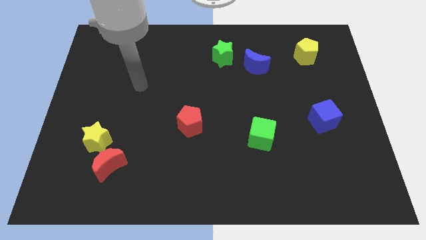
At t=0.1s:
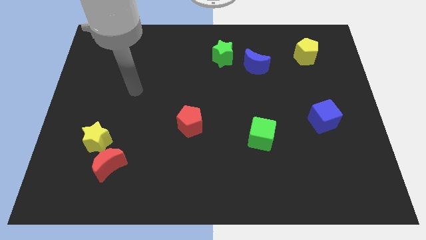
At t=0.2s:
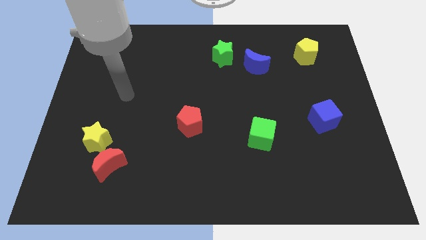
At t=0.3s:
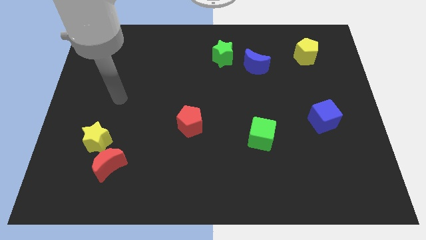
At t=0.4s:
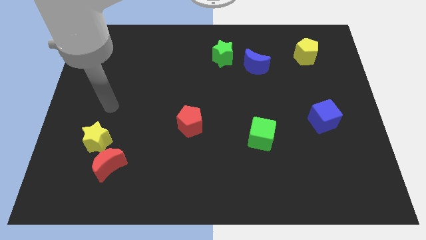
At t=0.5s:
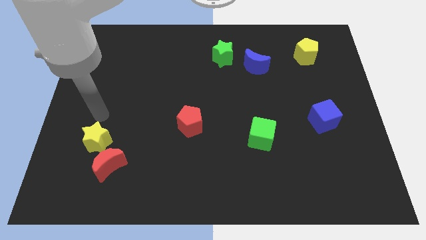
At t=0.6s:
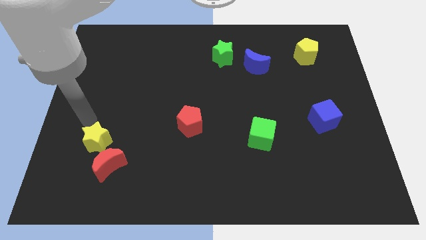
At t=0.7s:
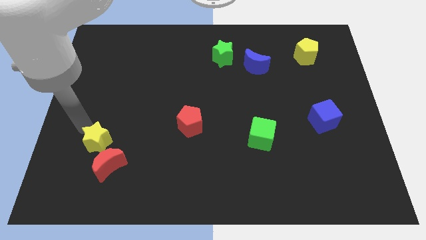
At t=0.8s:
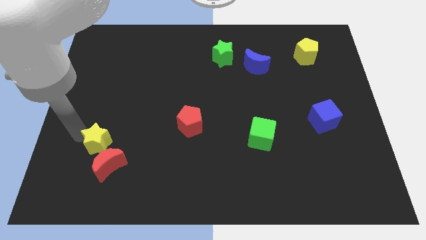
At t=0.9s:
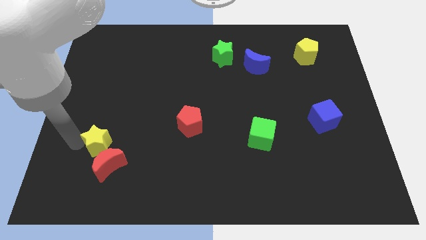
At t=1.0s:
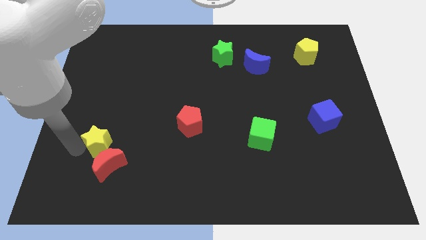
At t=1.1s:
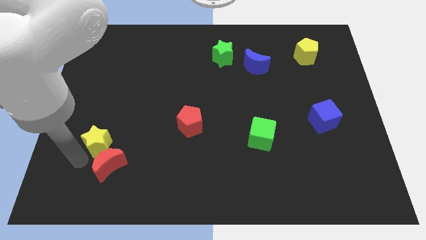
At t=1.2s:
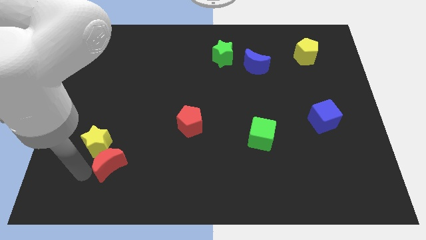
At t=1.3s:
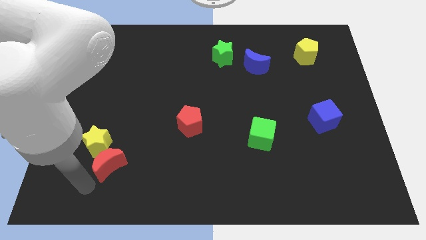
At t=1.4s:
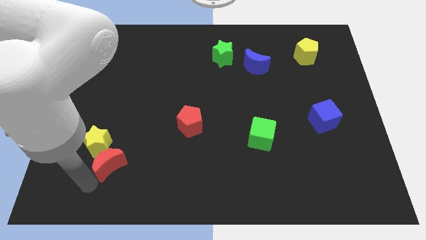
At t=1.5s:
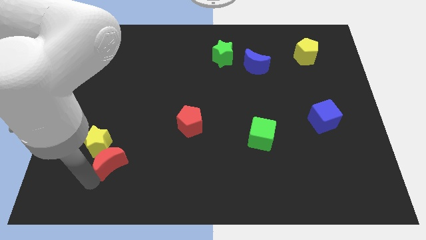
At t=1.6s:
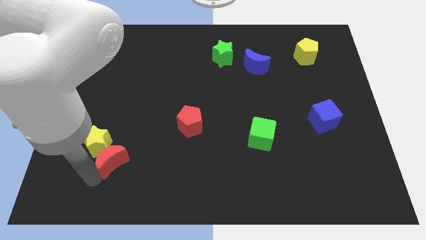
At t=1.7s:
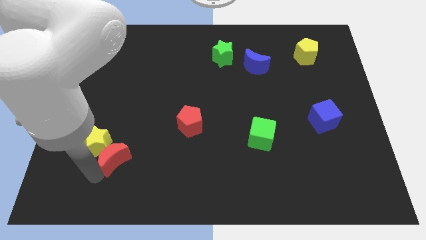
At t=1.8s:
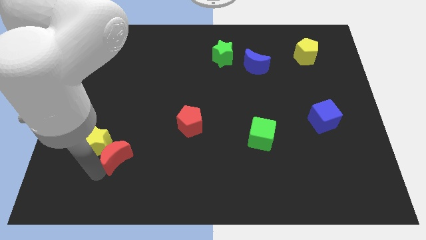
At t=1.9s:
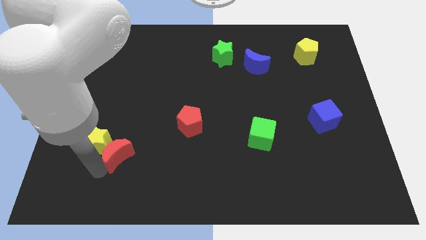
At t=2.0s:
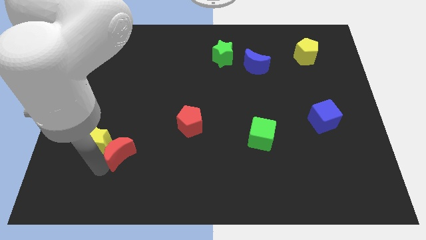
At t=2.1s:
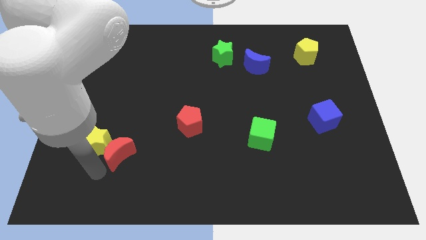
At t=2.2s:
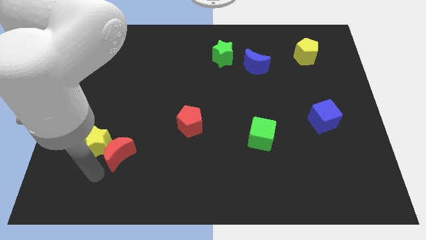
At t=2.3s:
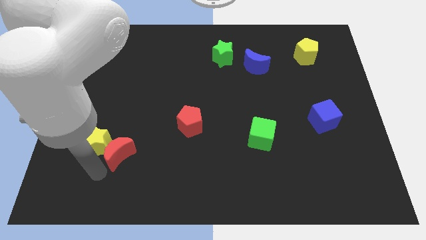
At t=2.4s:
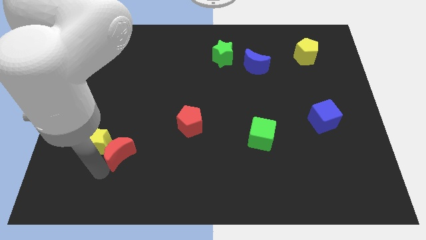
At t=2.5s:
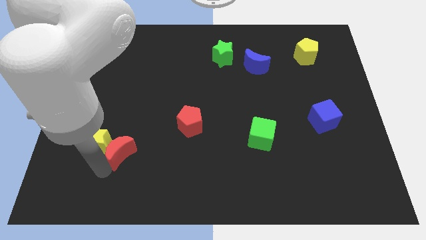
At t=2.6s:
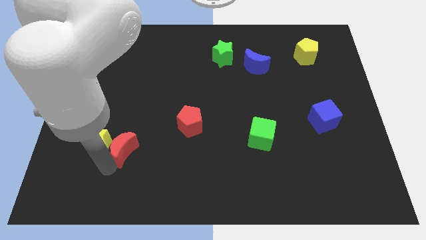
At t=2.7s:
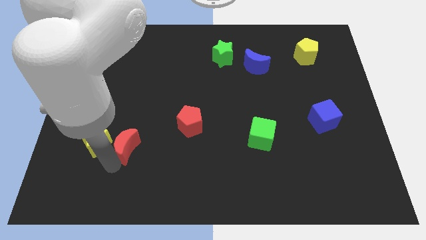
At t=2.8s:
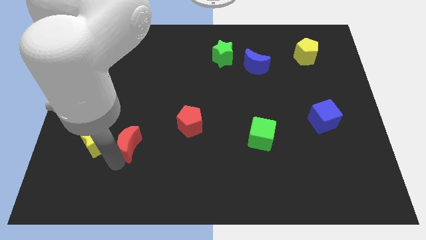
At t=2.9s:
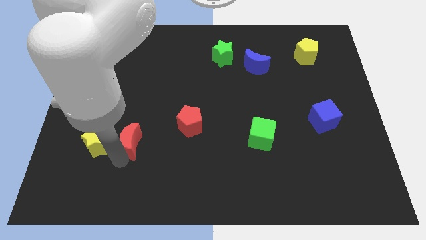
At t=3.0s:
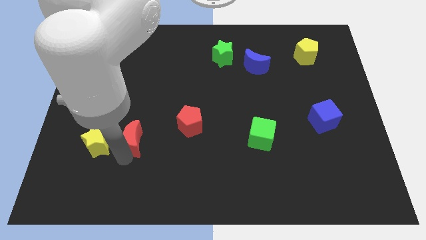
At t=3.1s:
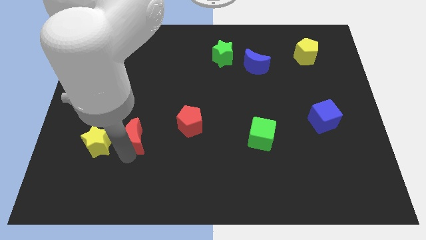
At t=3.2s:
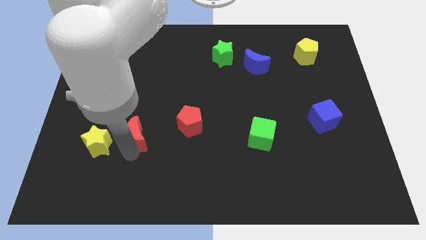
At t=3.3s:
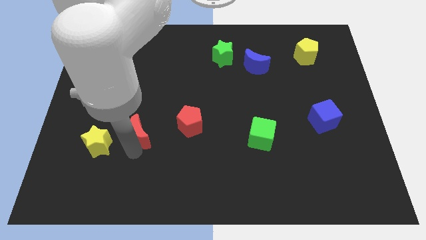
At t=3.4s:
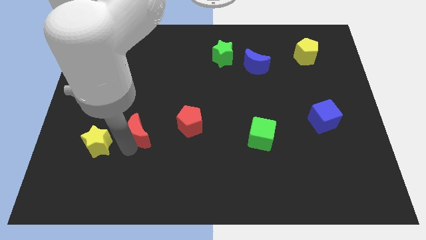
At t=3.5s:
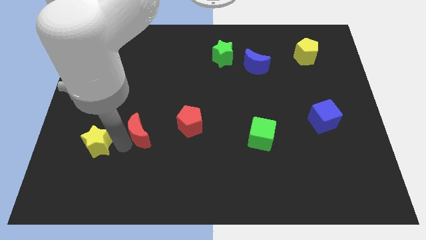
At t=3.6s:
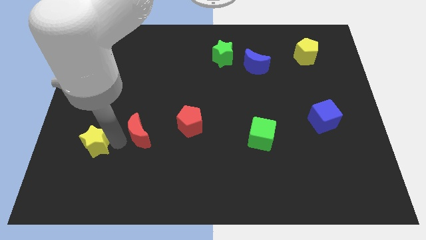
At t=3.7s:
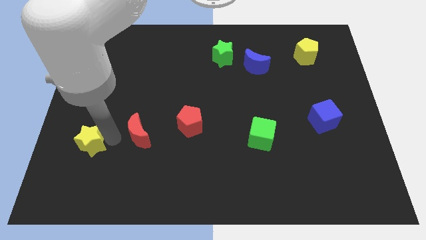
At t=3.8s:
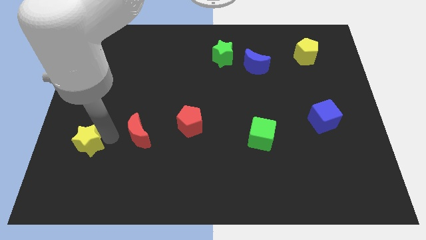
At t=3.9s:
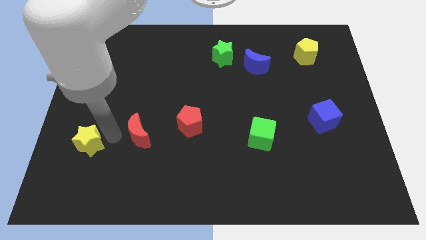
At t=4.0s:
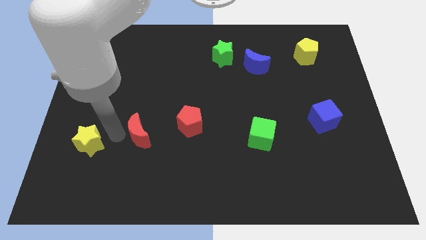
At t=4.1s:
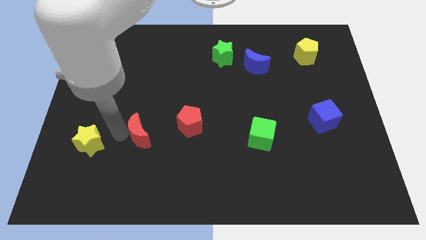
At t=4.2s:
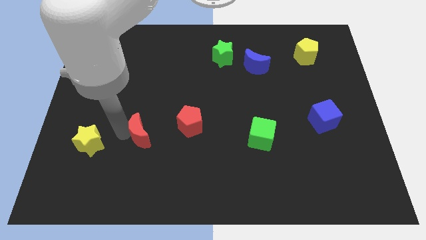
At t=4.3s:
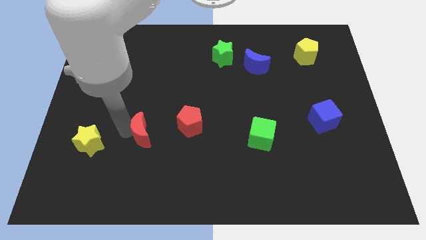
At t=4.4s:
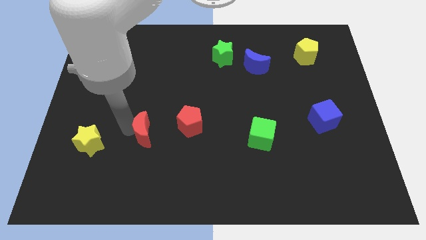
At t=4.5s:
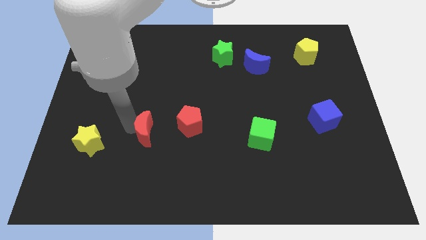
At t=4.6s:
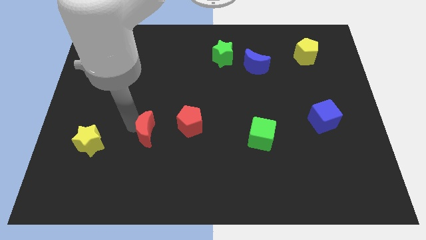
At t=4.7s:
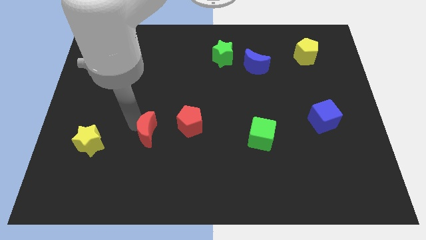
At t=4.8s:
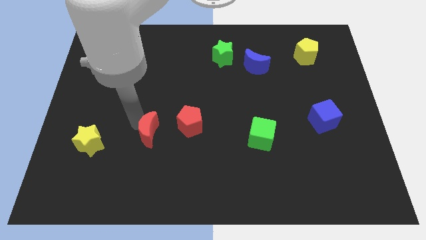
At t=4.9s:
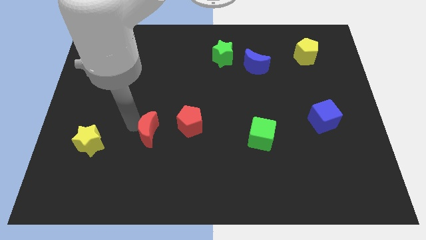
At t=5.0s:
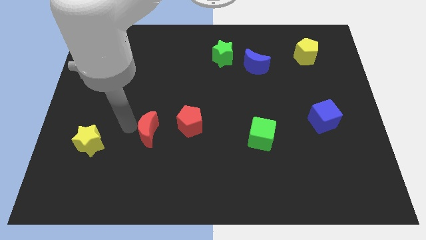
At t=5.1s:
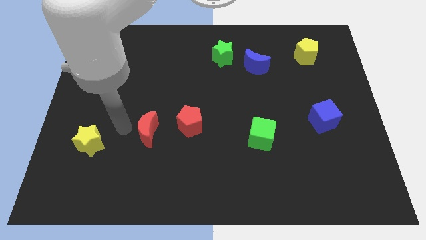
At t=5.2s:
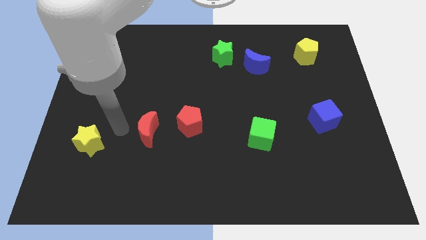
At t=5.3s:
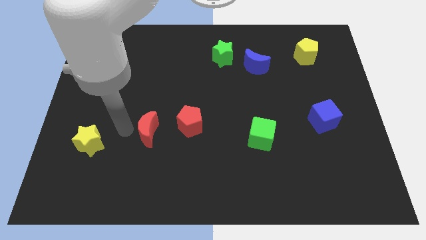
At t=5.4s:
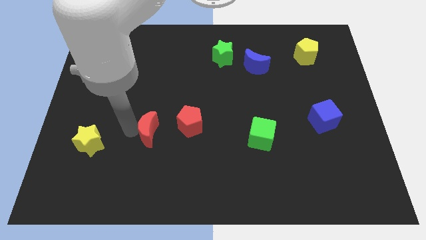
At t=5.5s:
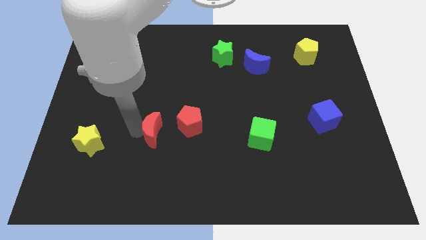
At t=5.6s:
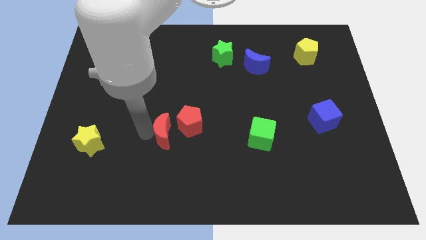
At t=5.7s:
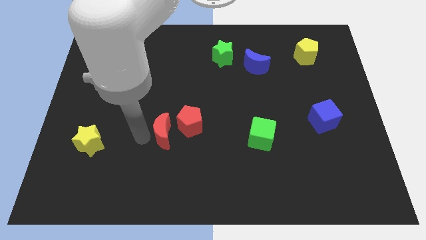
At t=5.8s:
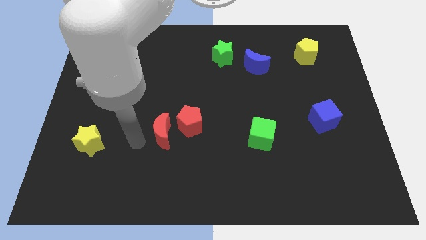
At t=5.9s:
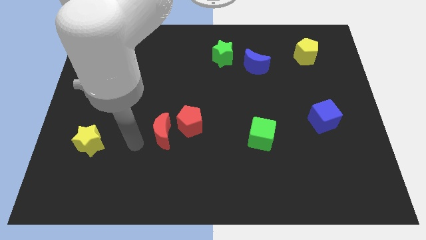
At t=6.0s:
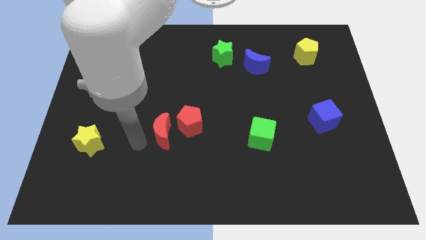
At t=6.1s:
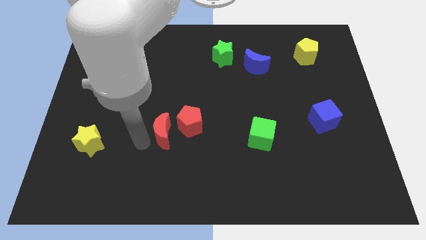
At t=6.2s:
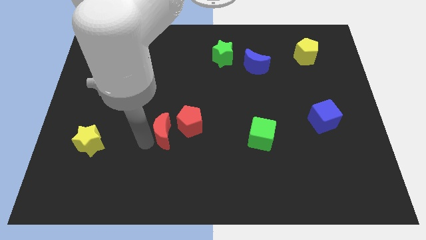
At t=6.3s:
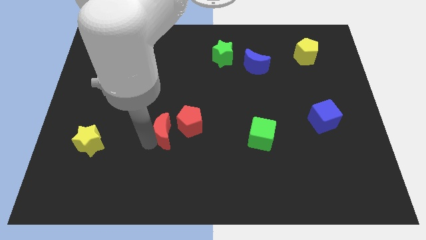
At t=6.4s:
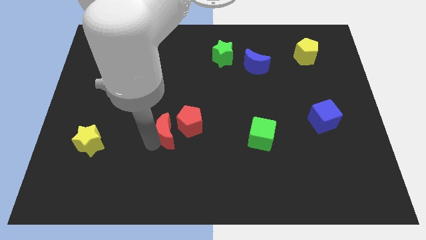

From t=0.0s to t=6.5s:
slide the red moon to the red pentagon

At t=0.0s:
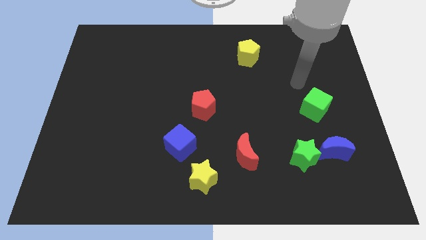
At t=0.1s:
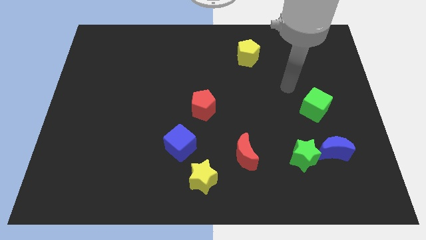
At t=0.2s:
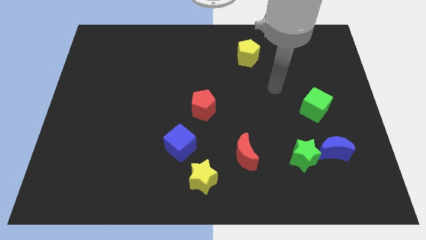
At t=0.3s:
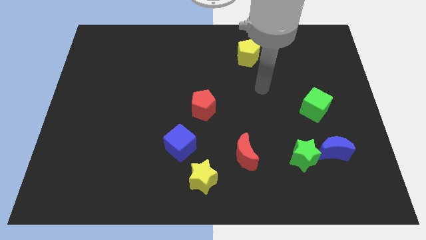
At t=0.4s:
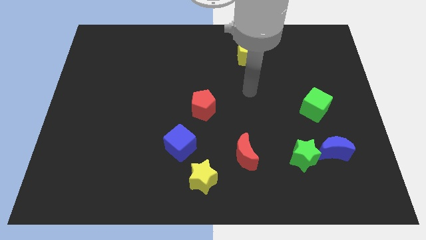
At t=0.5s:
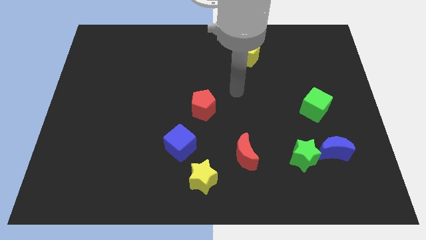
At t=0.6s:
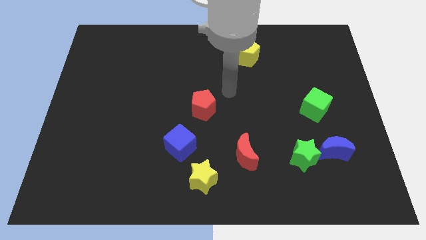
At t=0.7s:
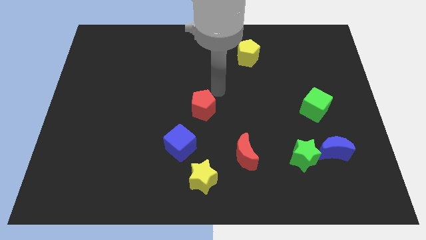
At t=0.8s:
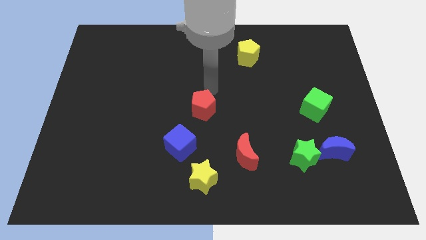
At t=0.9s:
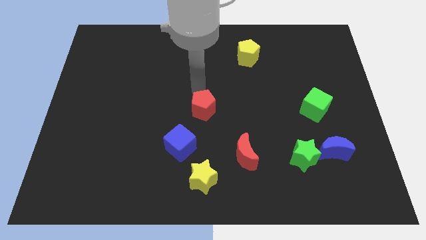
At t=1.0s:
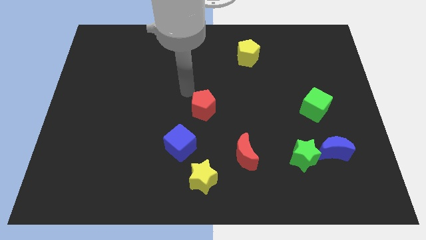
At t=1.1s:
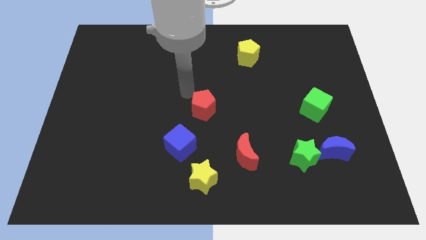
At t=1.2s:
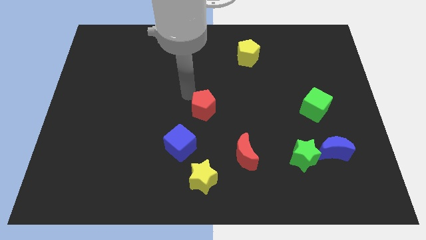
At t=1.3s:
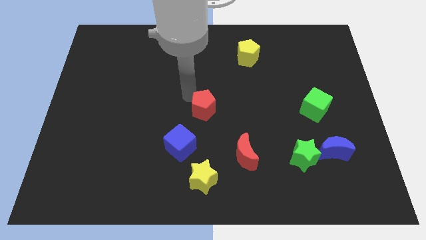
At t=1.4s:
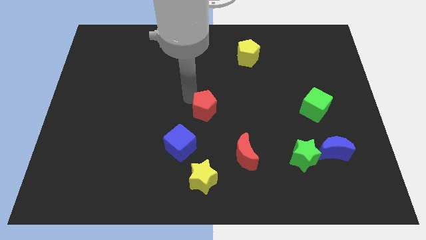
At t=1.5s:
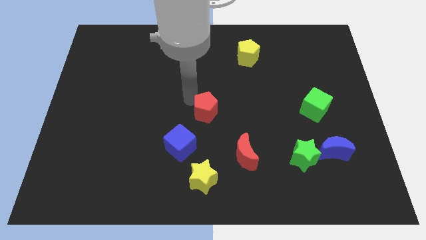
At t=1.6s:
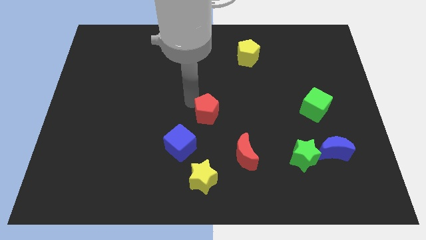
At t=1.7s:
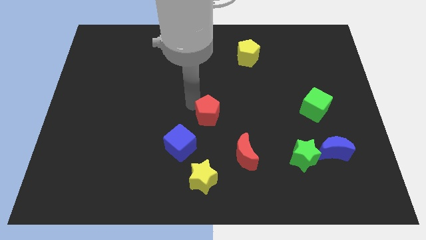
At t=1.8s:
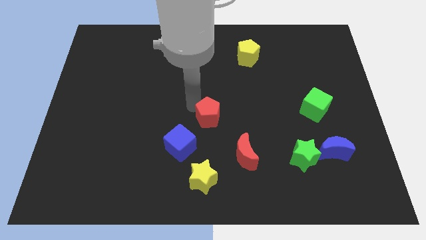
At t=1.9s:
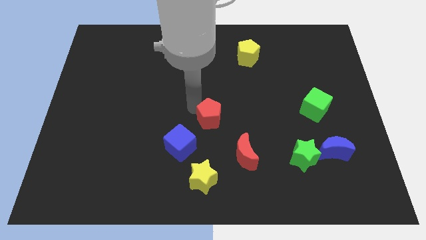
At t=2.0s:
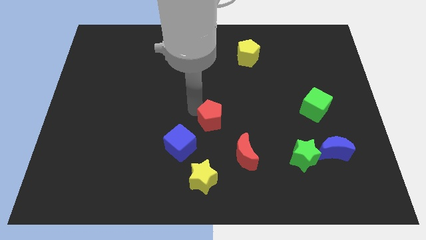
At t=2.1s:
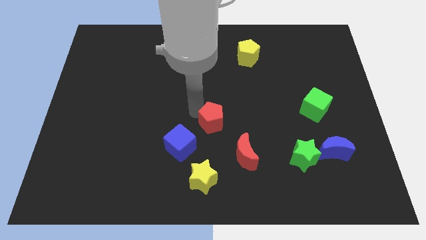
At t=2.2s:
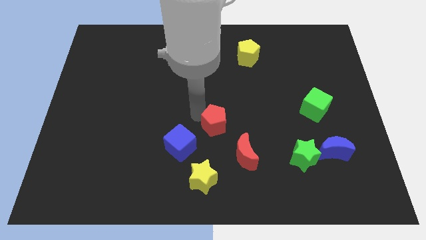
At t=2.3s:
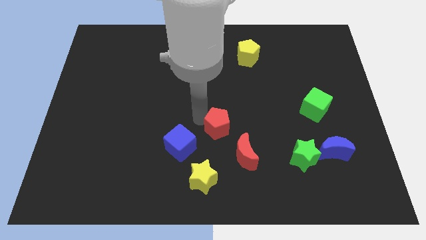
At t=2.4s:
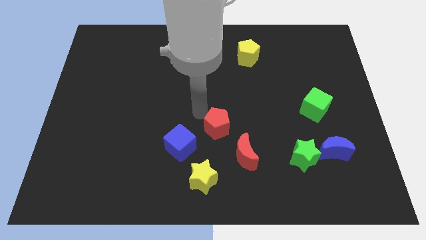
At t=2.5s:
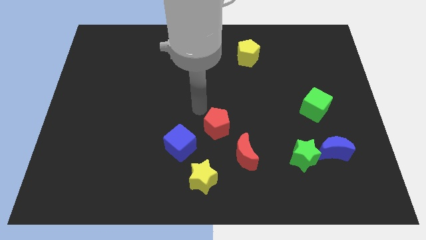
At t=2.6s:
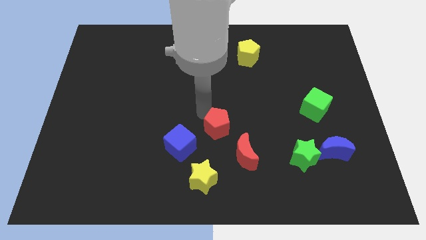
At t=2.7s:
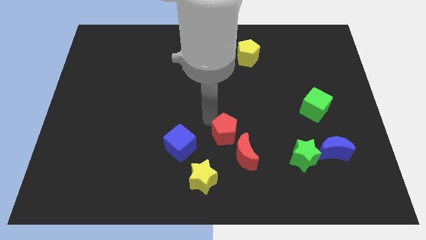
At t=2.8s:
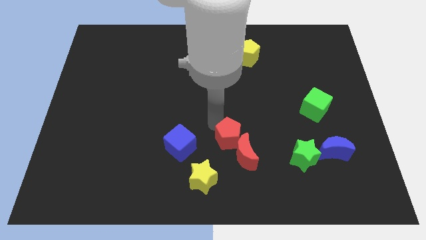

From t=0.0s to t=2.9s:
put the red pentagon towards the red moon
